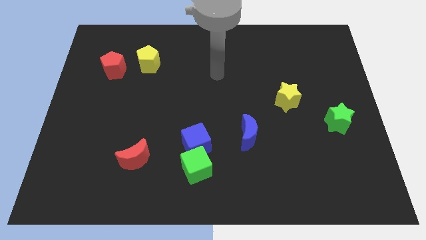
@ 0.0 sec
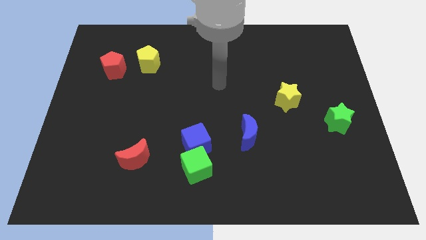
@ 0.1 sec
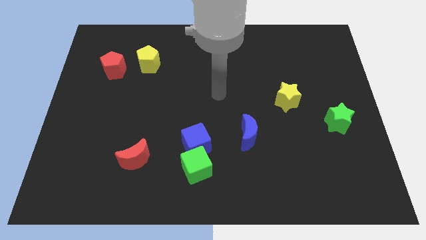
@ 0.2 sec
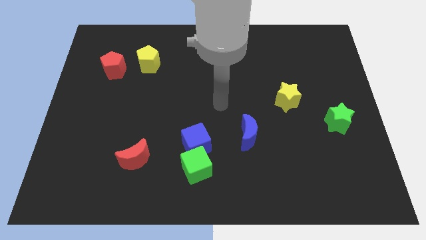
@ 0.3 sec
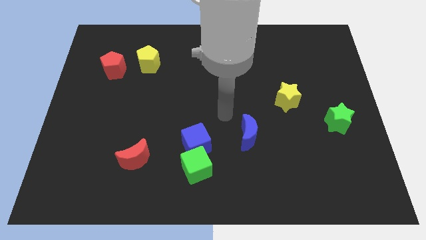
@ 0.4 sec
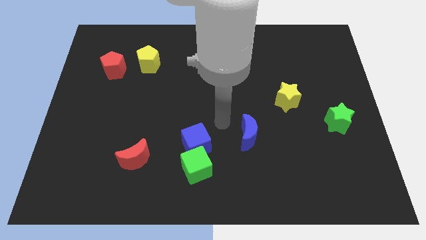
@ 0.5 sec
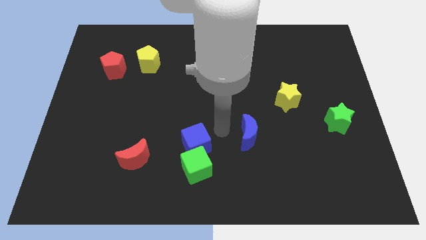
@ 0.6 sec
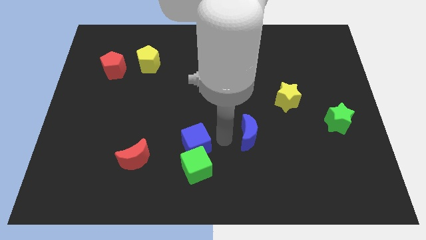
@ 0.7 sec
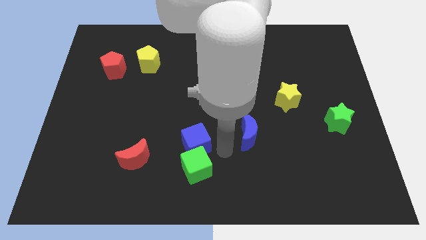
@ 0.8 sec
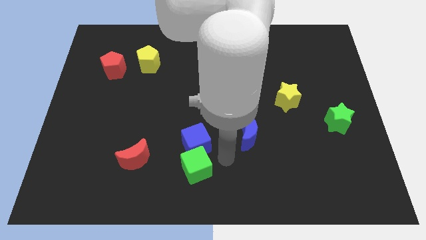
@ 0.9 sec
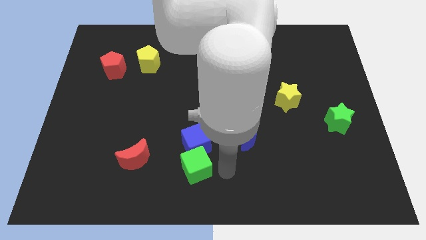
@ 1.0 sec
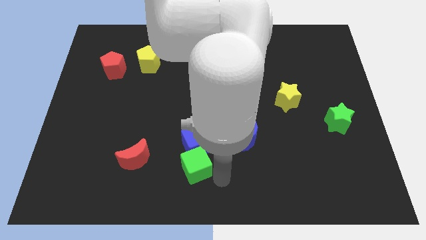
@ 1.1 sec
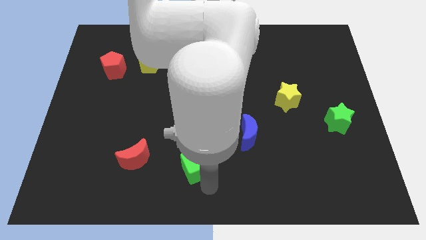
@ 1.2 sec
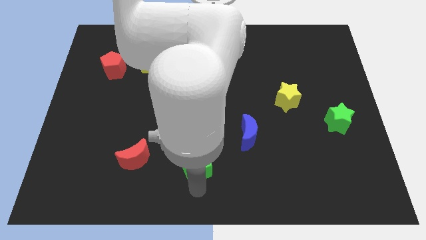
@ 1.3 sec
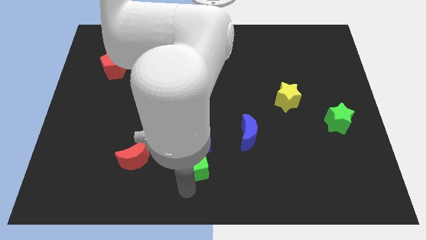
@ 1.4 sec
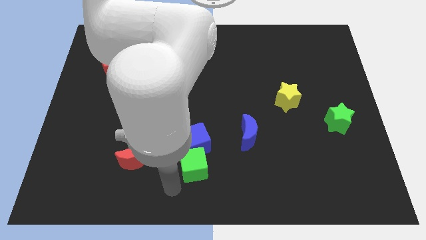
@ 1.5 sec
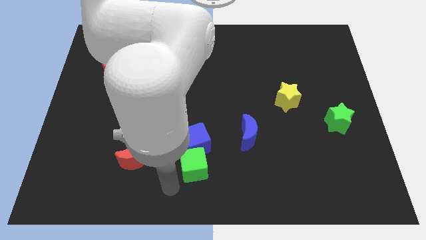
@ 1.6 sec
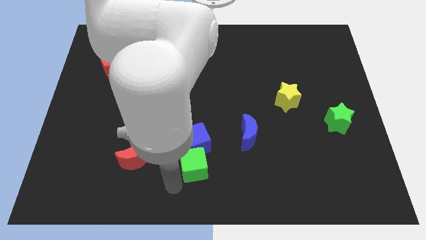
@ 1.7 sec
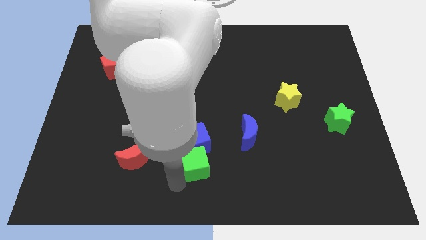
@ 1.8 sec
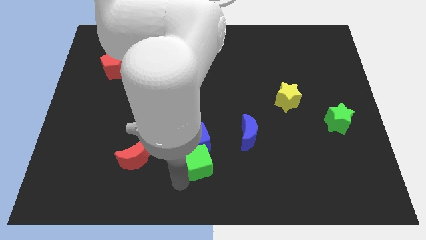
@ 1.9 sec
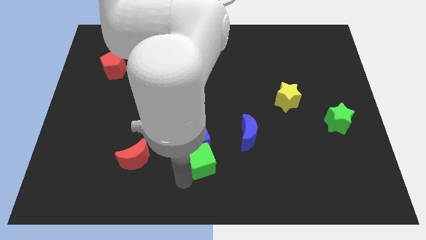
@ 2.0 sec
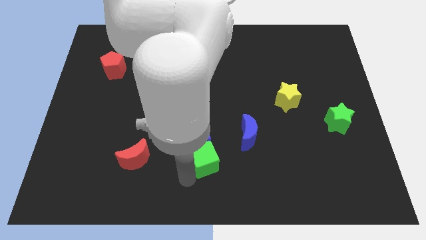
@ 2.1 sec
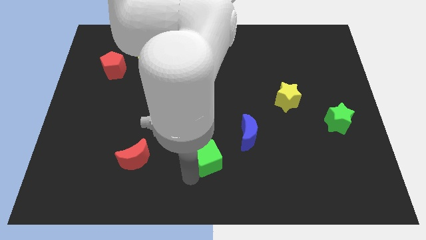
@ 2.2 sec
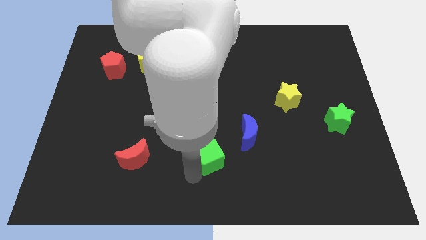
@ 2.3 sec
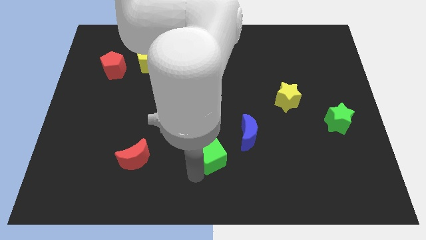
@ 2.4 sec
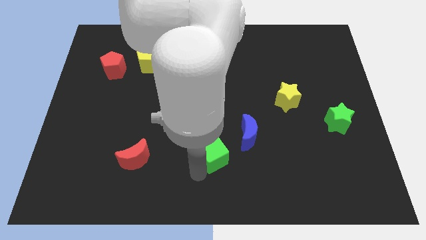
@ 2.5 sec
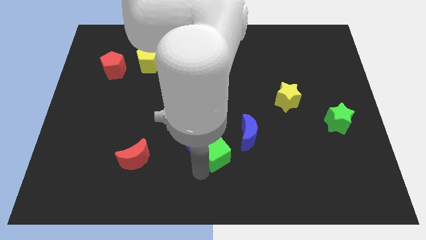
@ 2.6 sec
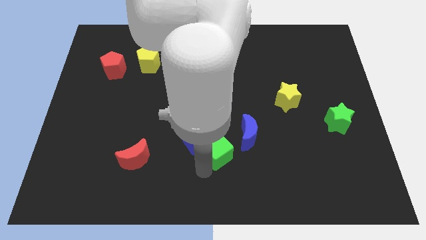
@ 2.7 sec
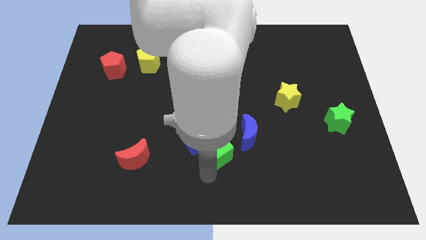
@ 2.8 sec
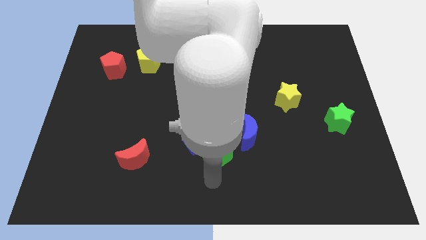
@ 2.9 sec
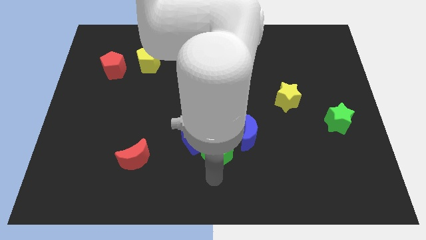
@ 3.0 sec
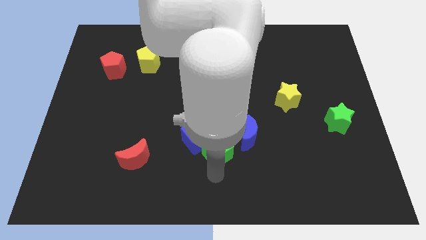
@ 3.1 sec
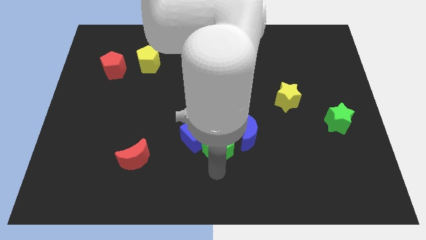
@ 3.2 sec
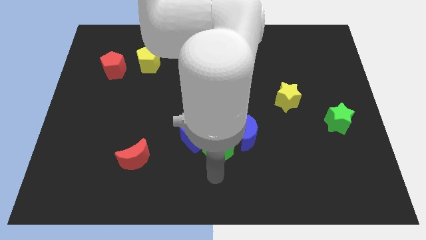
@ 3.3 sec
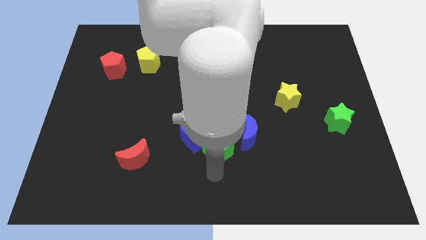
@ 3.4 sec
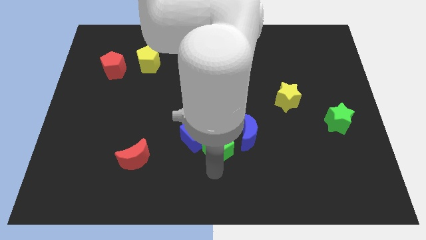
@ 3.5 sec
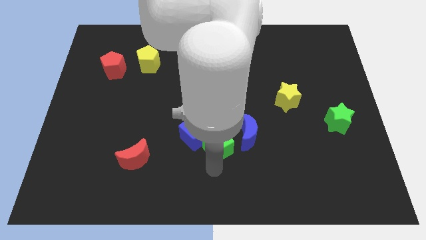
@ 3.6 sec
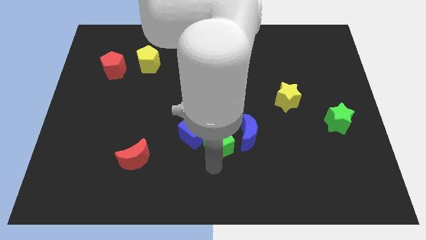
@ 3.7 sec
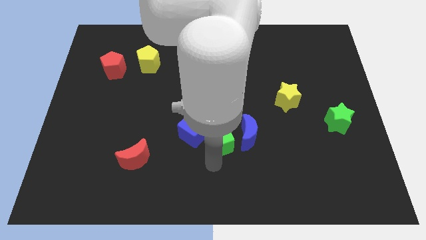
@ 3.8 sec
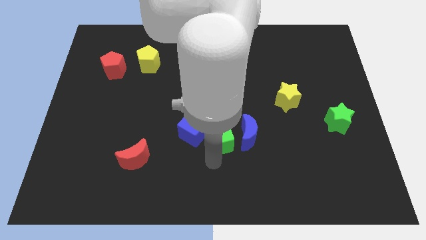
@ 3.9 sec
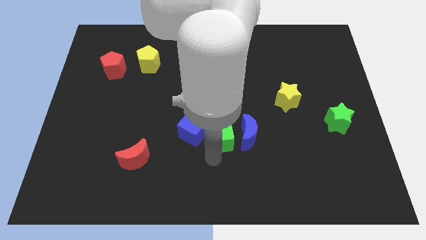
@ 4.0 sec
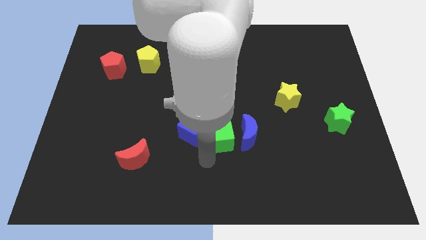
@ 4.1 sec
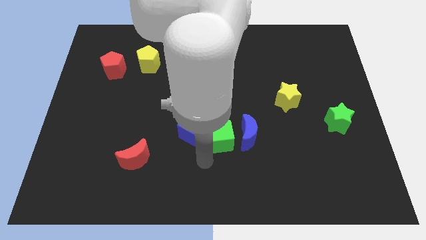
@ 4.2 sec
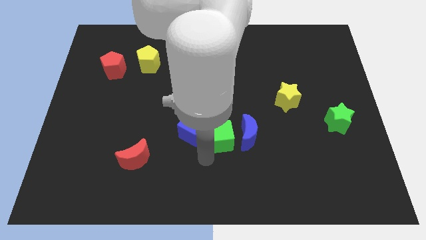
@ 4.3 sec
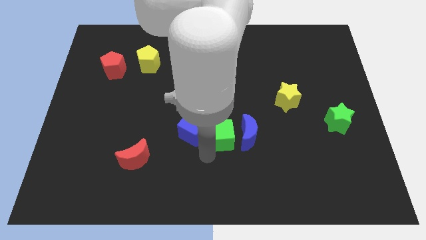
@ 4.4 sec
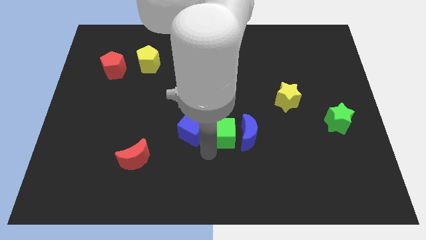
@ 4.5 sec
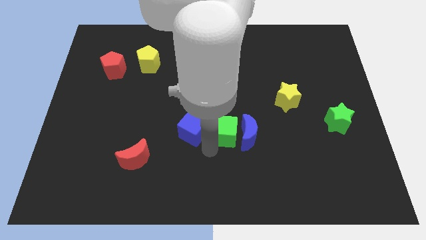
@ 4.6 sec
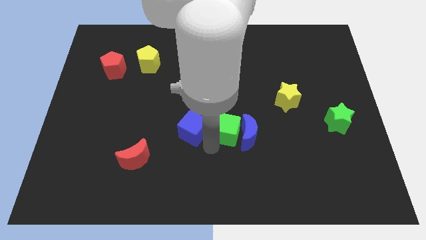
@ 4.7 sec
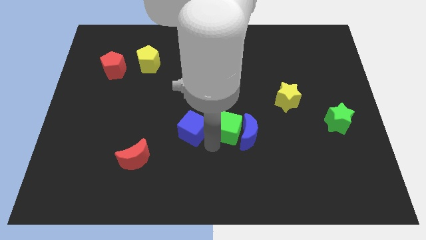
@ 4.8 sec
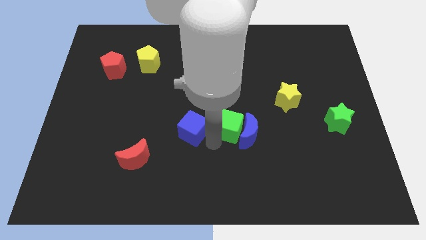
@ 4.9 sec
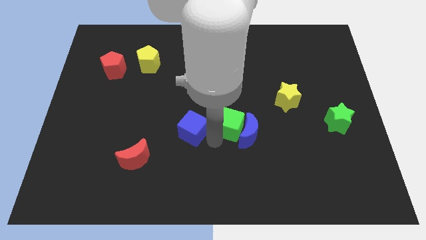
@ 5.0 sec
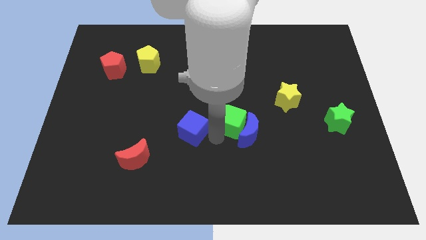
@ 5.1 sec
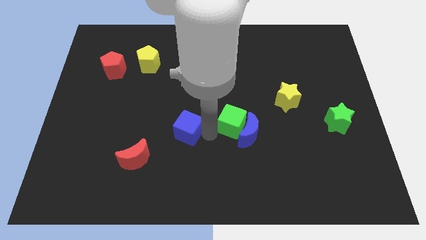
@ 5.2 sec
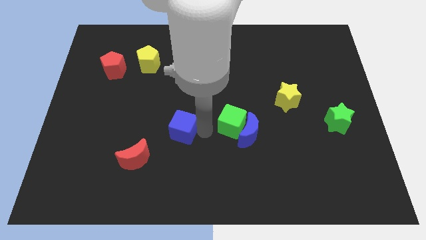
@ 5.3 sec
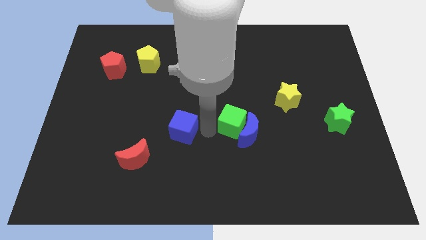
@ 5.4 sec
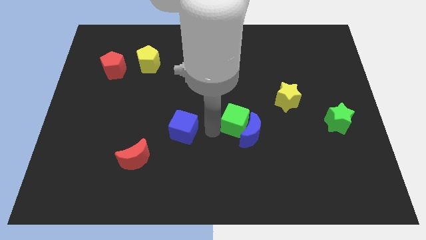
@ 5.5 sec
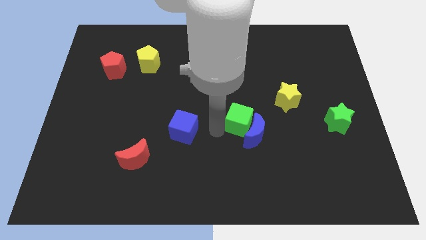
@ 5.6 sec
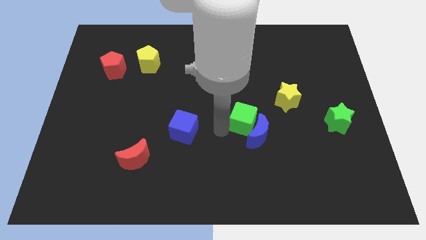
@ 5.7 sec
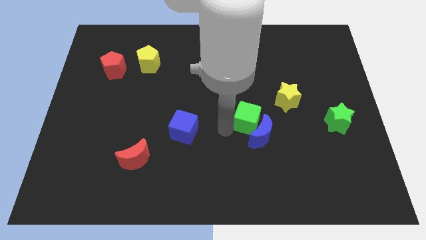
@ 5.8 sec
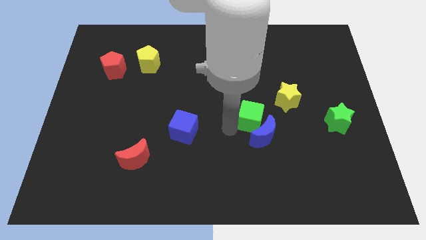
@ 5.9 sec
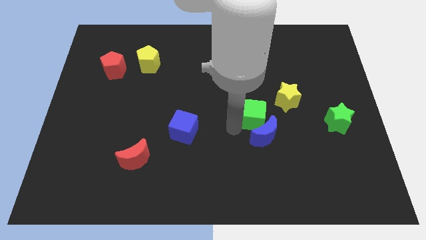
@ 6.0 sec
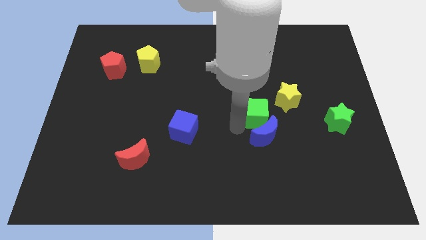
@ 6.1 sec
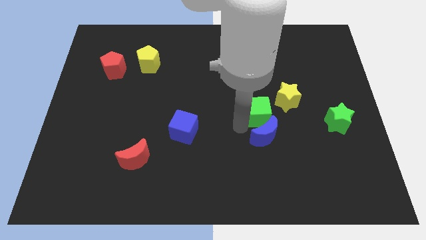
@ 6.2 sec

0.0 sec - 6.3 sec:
move the green cube to the top right side of the blue moon

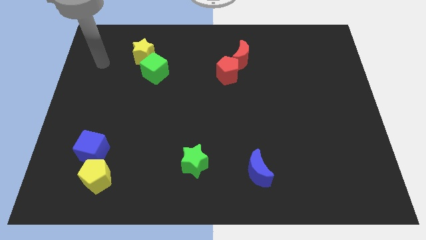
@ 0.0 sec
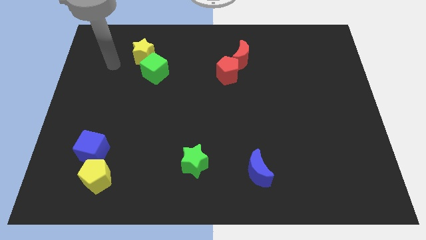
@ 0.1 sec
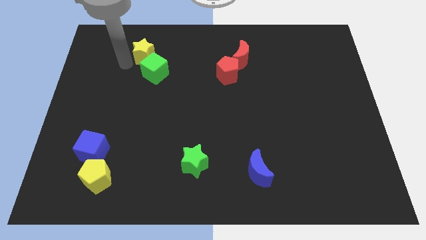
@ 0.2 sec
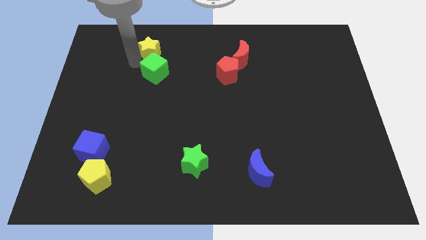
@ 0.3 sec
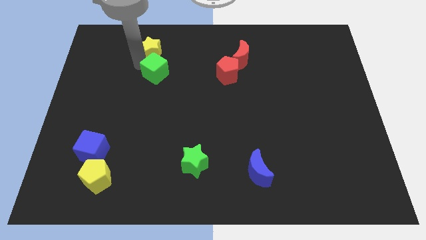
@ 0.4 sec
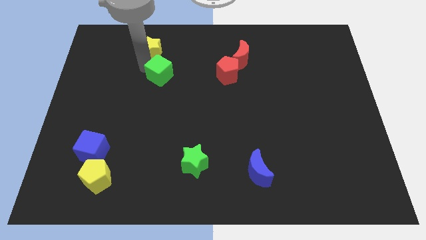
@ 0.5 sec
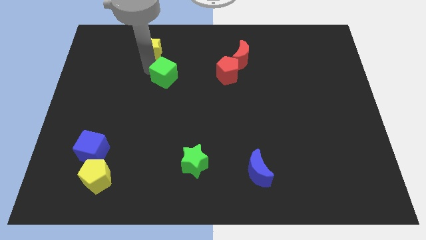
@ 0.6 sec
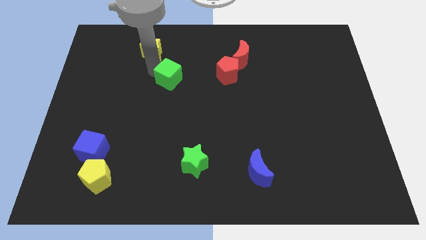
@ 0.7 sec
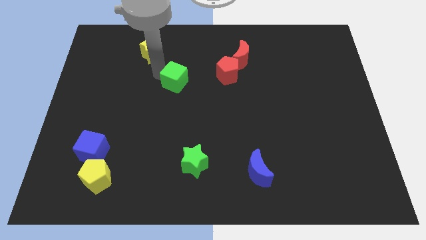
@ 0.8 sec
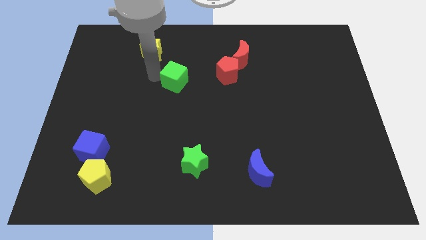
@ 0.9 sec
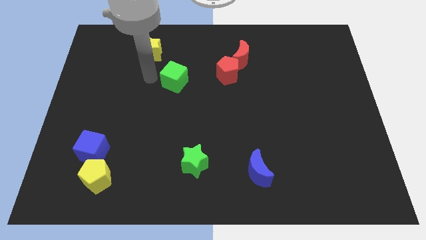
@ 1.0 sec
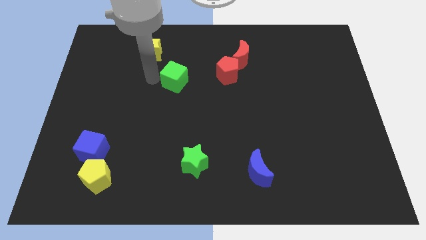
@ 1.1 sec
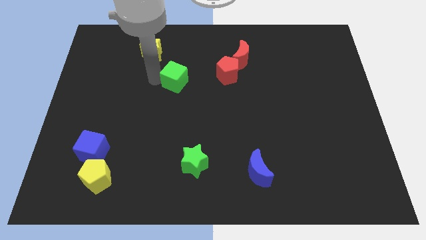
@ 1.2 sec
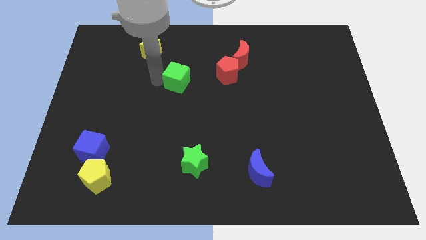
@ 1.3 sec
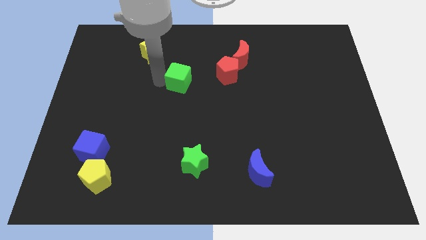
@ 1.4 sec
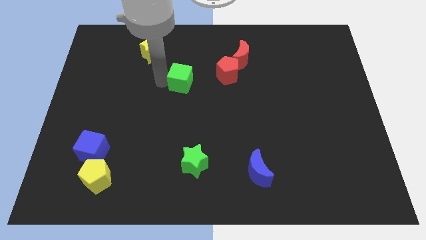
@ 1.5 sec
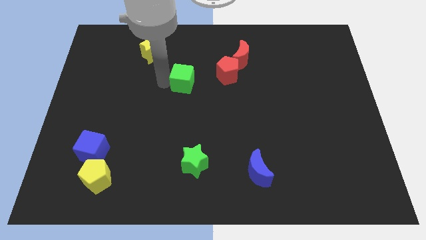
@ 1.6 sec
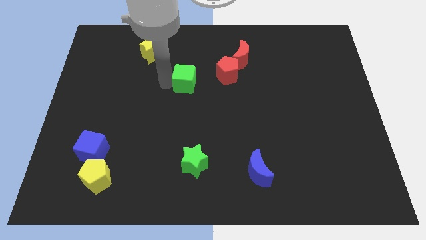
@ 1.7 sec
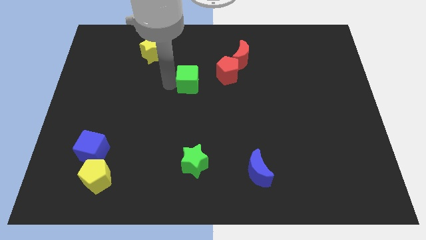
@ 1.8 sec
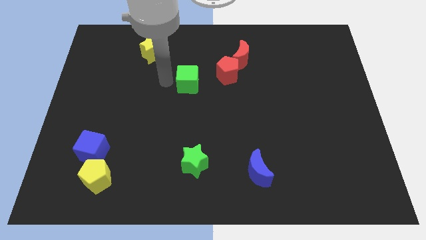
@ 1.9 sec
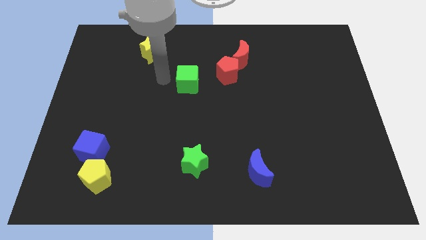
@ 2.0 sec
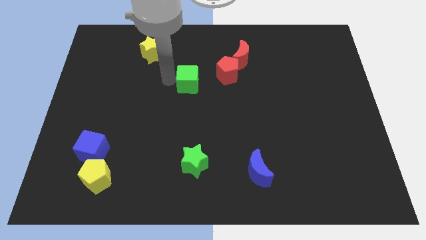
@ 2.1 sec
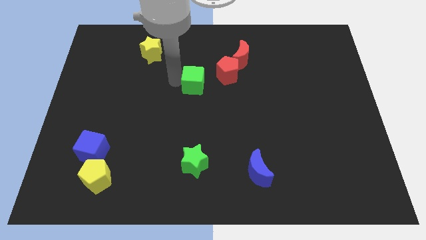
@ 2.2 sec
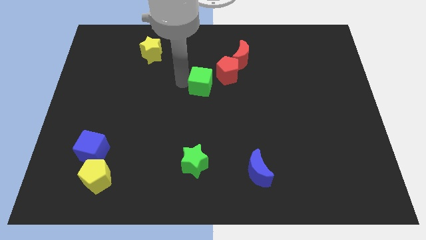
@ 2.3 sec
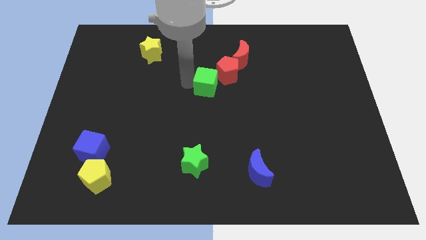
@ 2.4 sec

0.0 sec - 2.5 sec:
push the green cube to the bottom left side of the red moon
